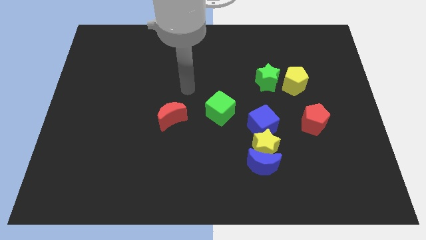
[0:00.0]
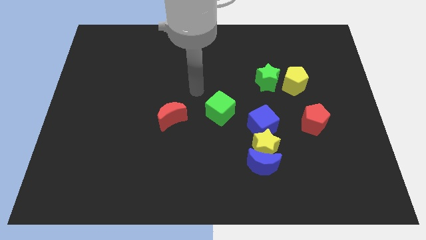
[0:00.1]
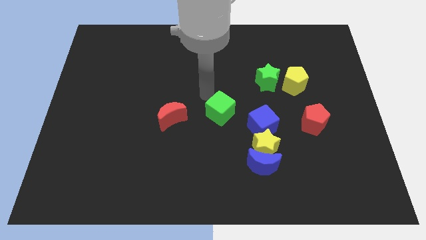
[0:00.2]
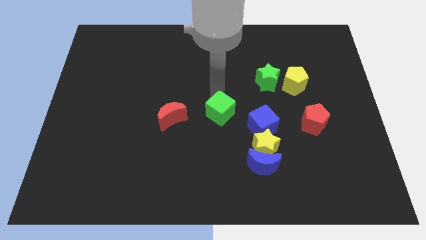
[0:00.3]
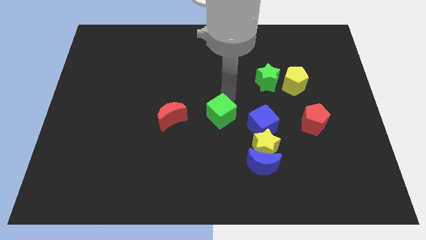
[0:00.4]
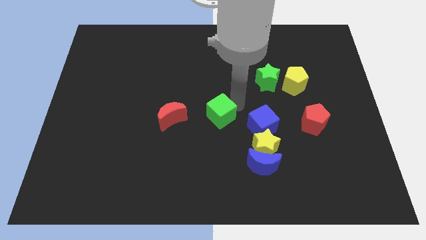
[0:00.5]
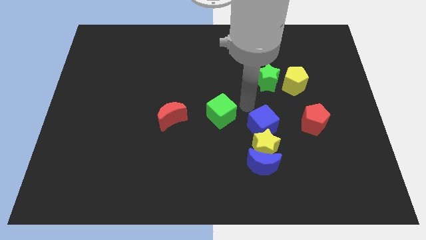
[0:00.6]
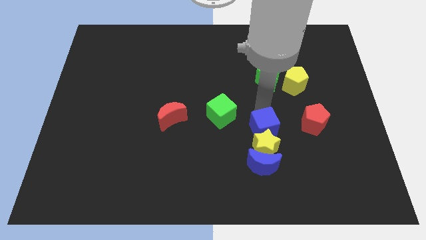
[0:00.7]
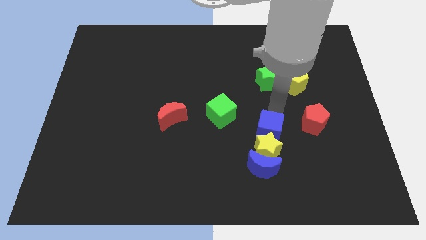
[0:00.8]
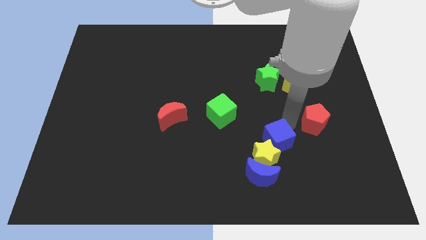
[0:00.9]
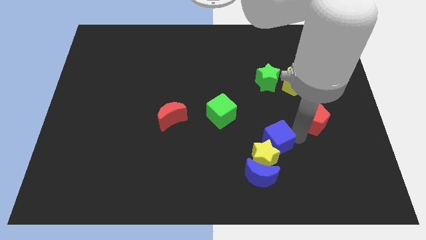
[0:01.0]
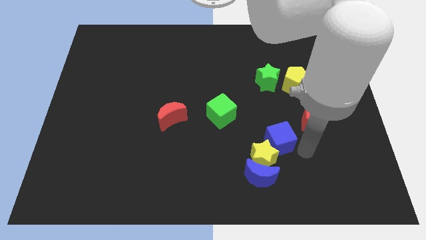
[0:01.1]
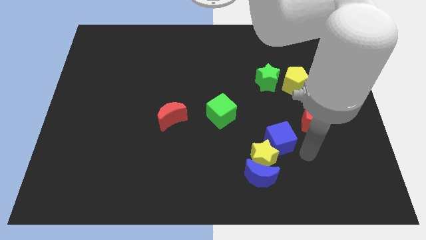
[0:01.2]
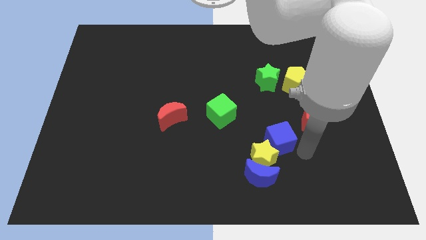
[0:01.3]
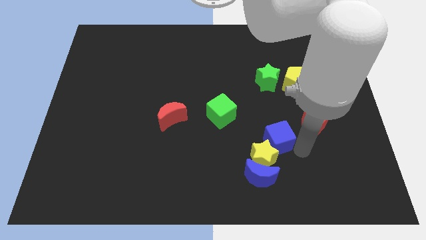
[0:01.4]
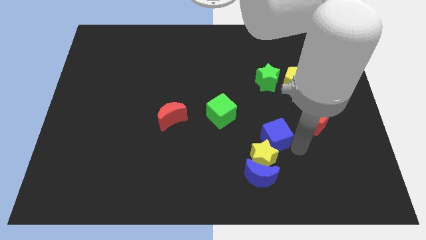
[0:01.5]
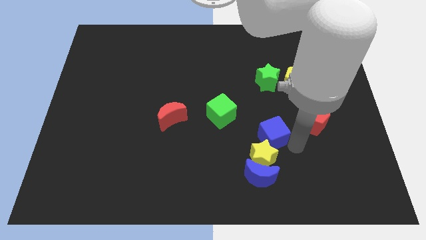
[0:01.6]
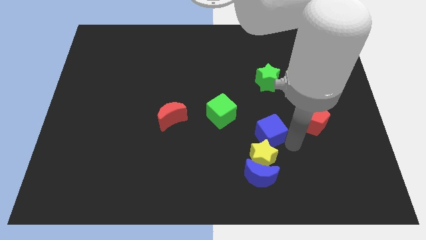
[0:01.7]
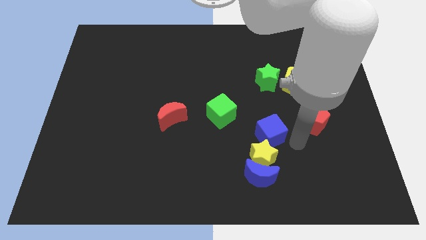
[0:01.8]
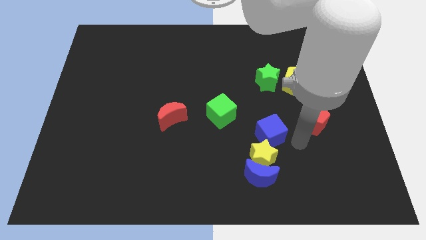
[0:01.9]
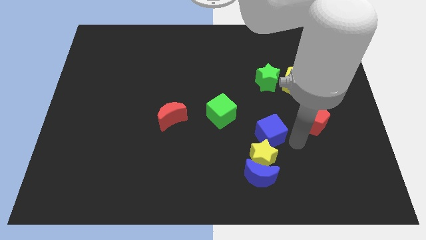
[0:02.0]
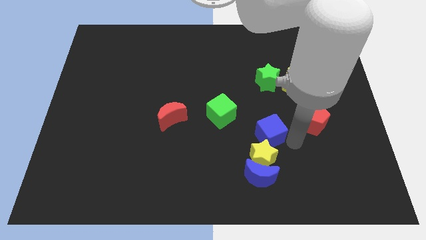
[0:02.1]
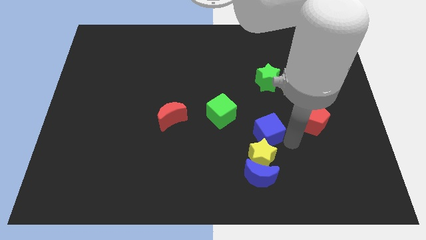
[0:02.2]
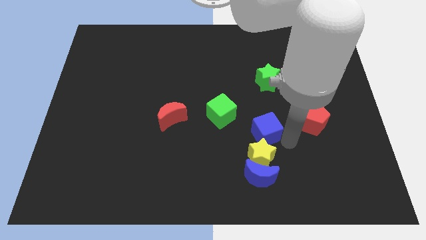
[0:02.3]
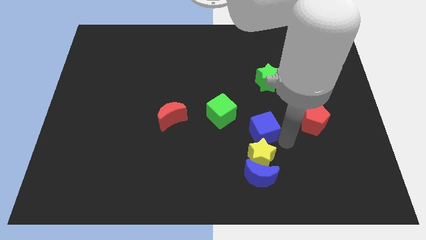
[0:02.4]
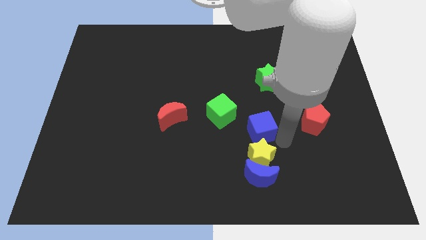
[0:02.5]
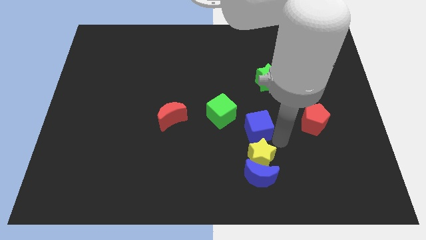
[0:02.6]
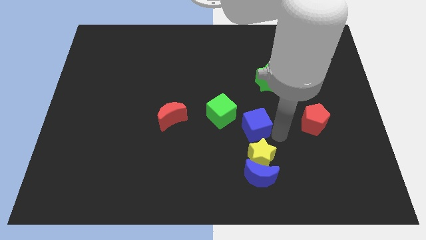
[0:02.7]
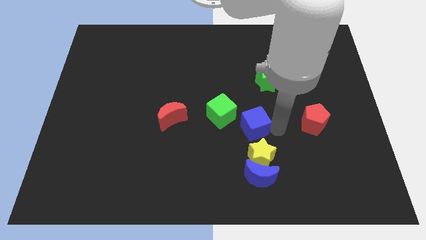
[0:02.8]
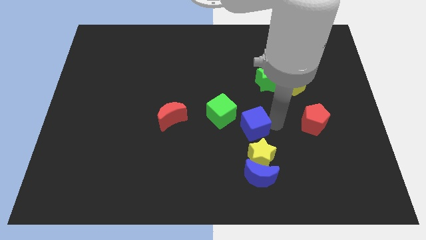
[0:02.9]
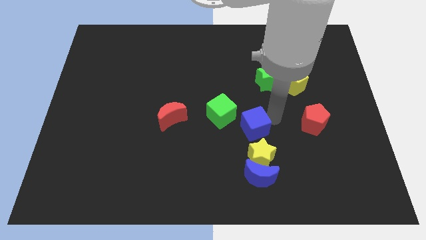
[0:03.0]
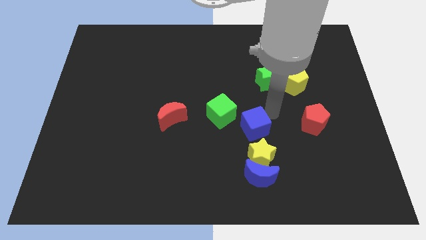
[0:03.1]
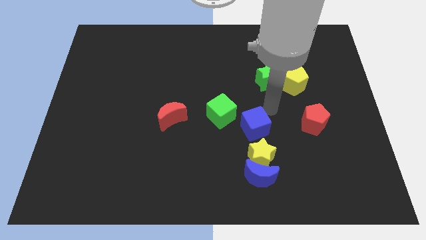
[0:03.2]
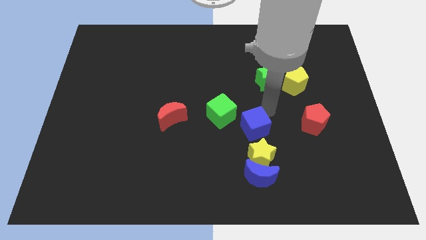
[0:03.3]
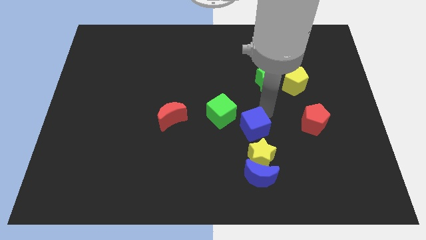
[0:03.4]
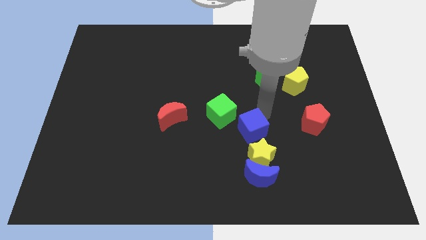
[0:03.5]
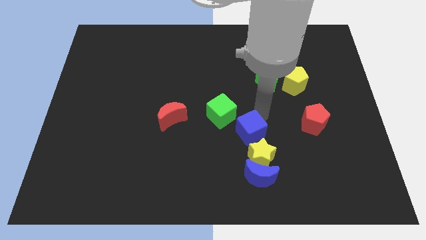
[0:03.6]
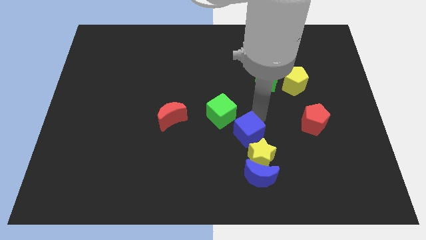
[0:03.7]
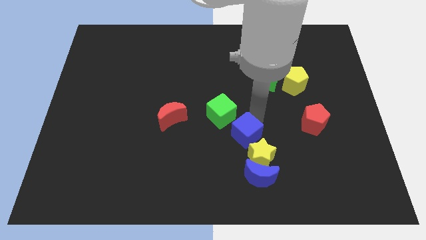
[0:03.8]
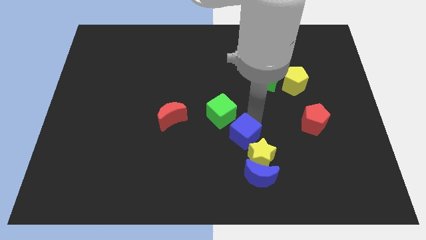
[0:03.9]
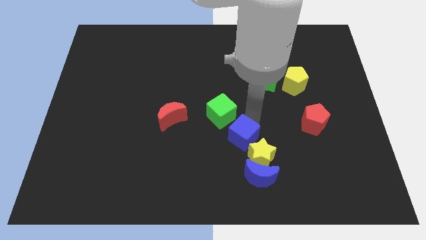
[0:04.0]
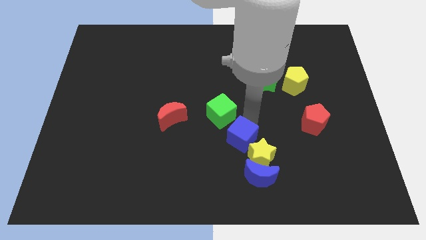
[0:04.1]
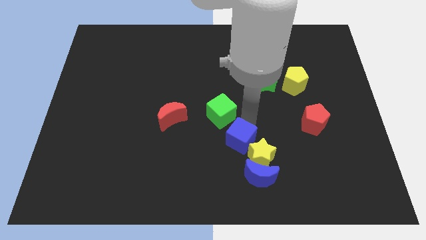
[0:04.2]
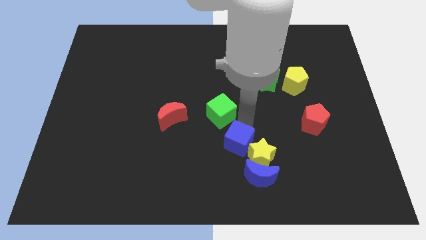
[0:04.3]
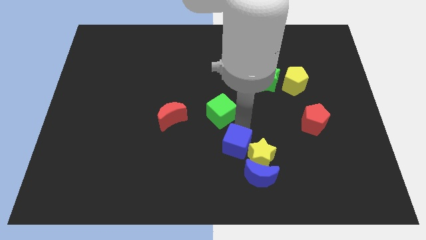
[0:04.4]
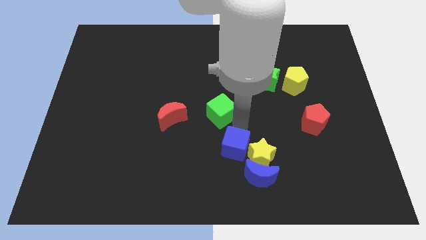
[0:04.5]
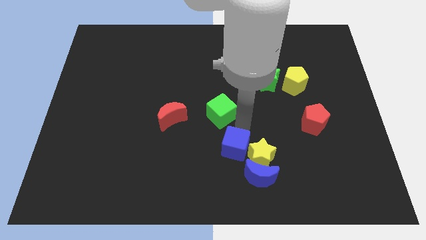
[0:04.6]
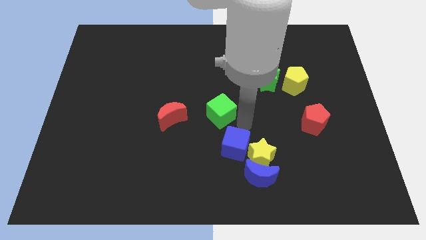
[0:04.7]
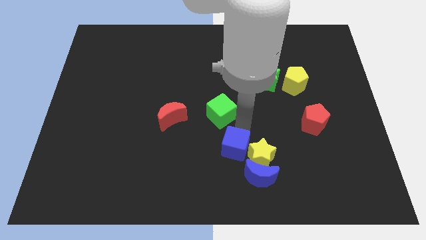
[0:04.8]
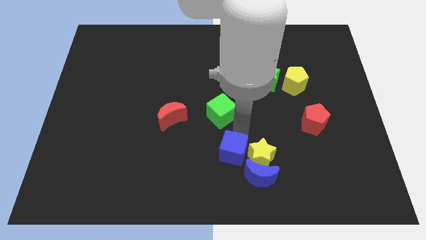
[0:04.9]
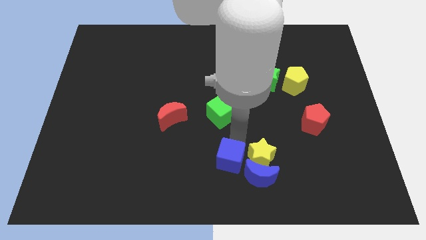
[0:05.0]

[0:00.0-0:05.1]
put the blue cube to the bottom
